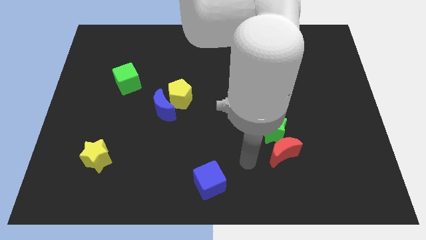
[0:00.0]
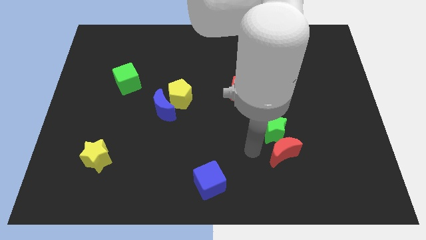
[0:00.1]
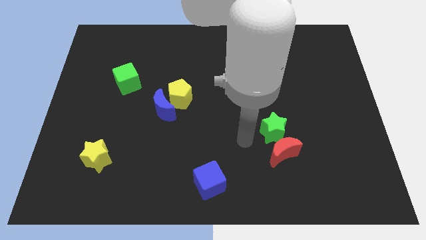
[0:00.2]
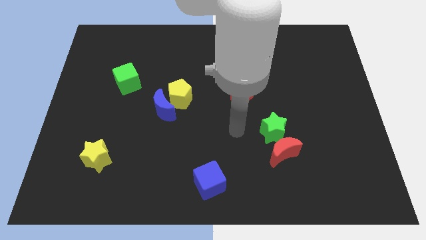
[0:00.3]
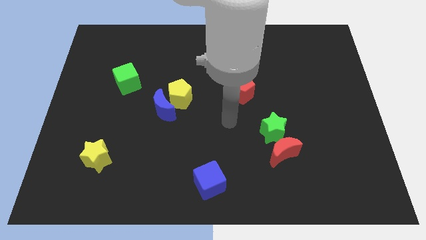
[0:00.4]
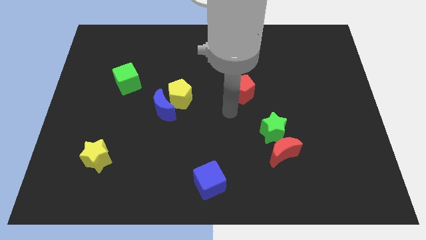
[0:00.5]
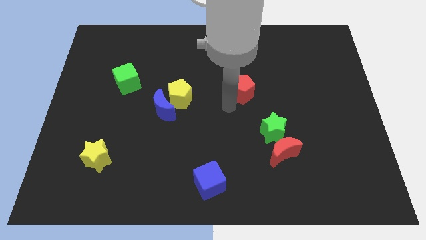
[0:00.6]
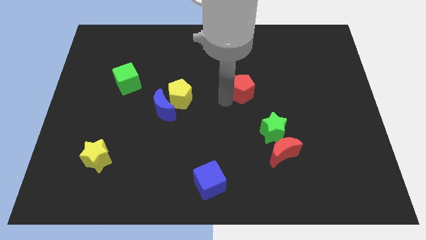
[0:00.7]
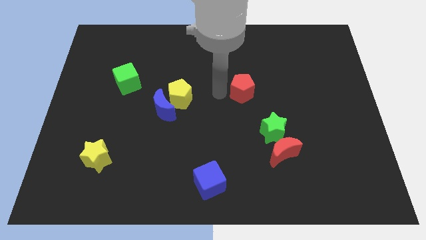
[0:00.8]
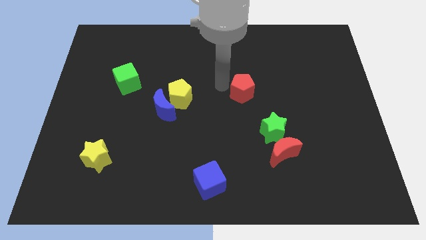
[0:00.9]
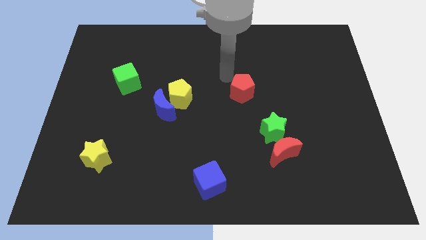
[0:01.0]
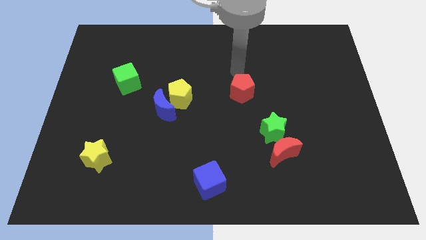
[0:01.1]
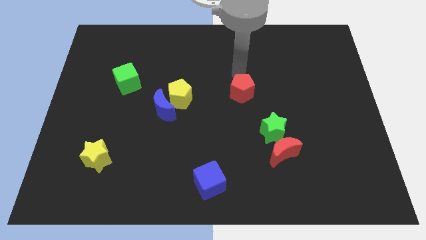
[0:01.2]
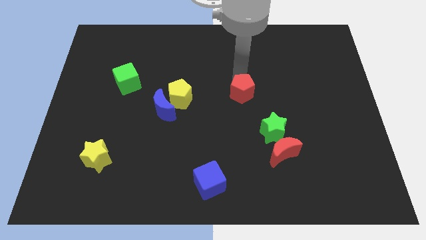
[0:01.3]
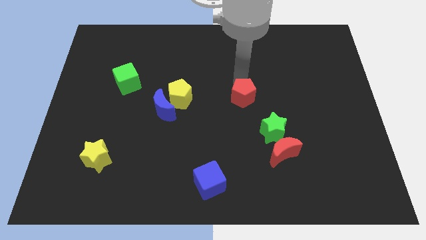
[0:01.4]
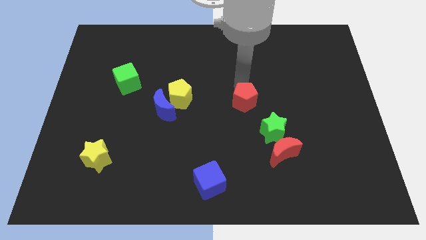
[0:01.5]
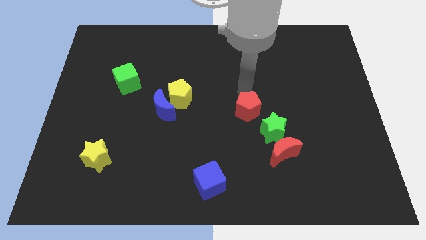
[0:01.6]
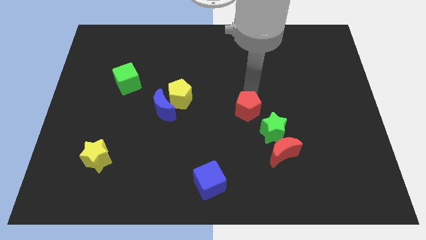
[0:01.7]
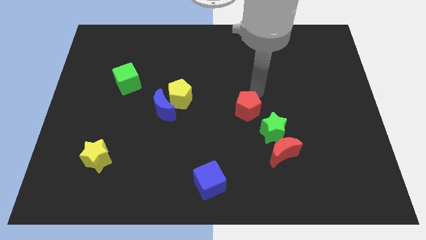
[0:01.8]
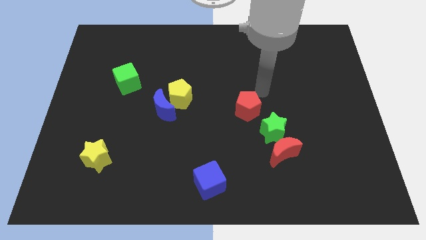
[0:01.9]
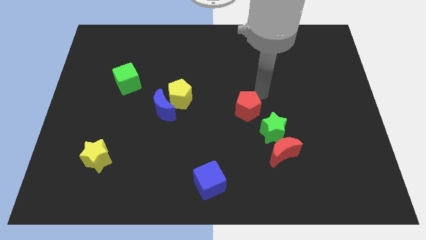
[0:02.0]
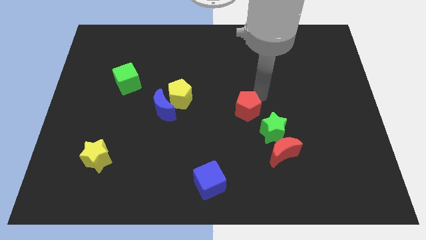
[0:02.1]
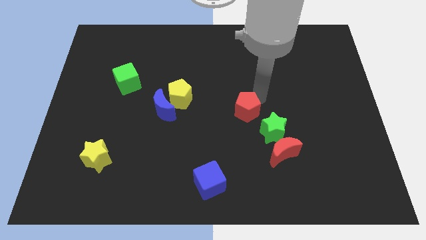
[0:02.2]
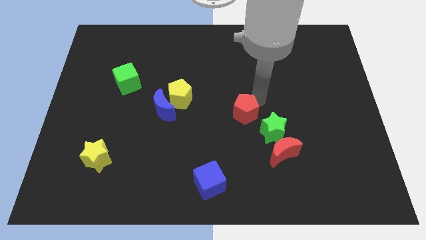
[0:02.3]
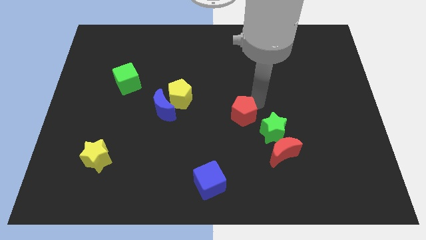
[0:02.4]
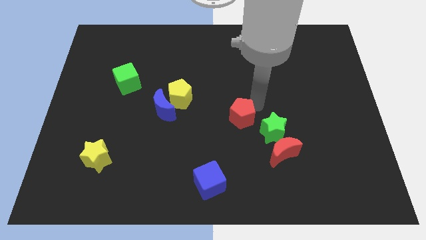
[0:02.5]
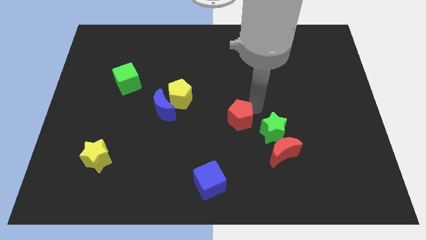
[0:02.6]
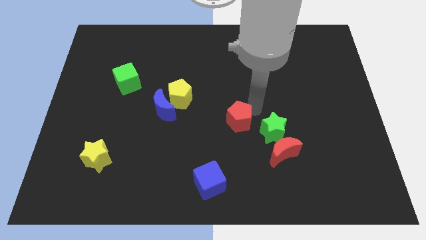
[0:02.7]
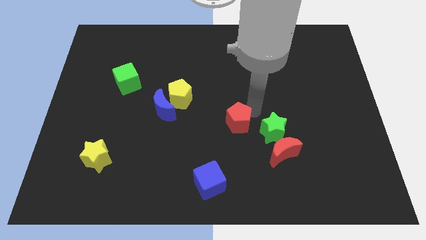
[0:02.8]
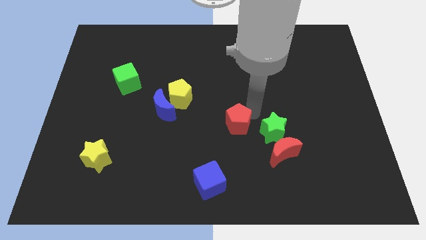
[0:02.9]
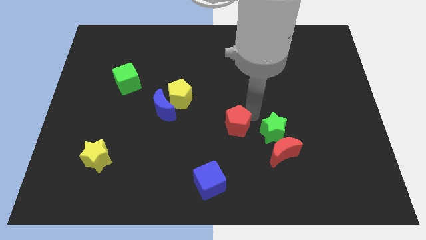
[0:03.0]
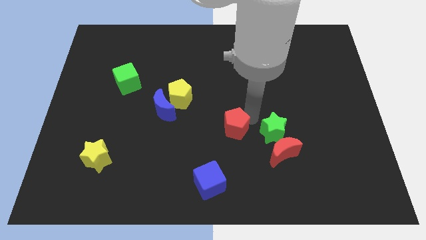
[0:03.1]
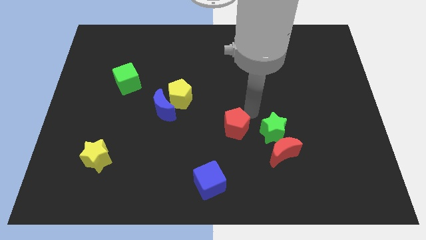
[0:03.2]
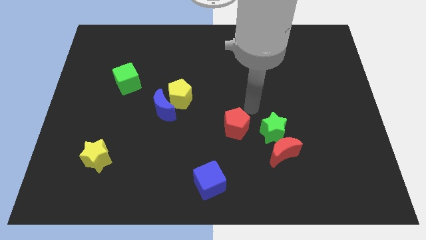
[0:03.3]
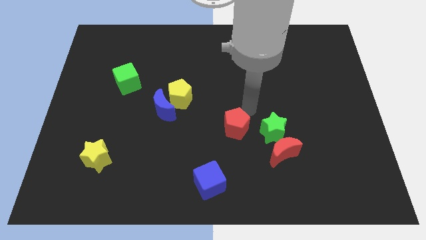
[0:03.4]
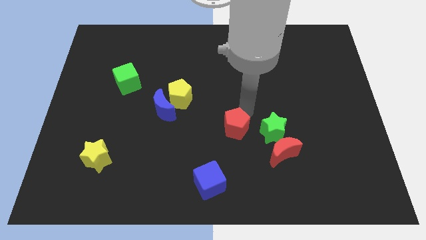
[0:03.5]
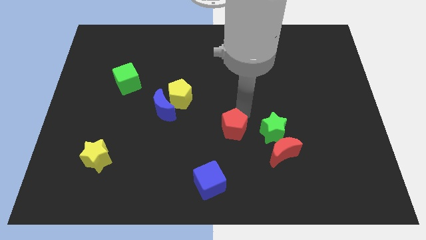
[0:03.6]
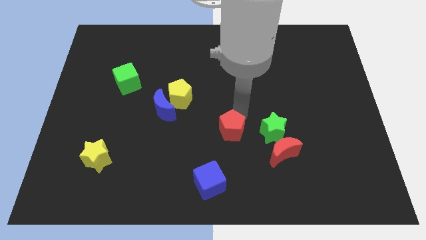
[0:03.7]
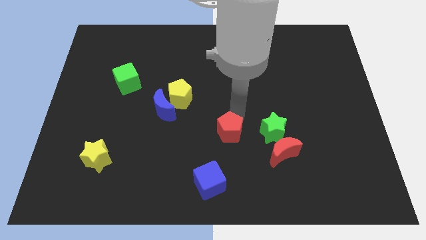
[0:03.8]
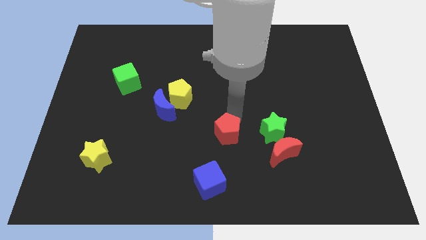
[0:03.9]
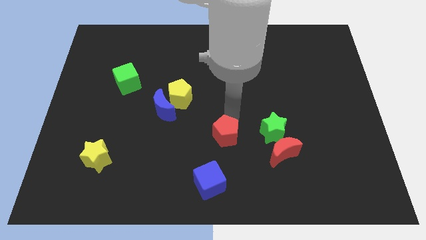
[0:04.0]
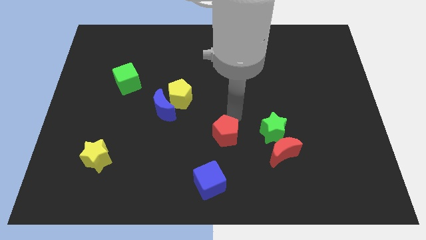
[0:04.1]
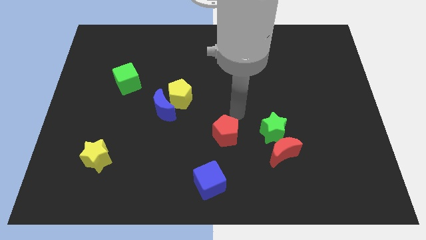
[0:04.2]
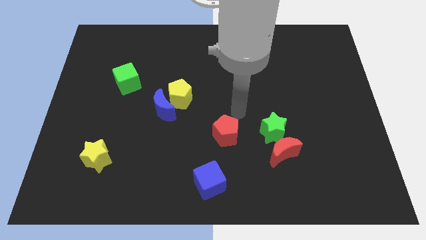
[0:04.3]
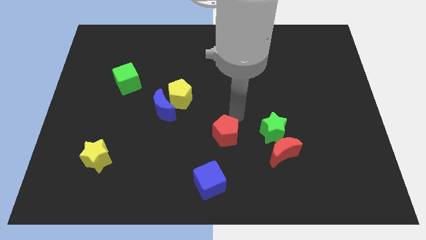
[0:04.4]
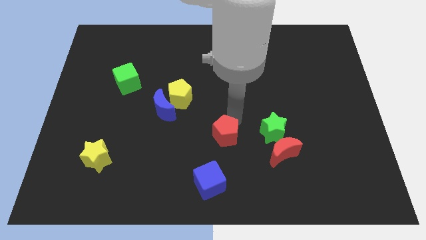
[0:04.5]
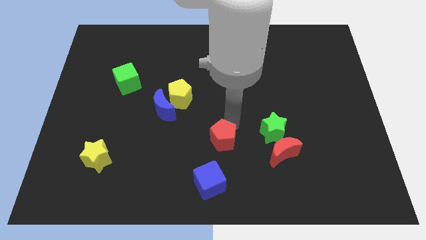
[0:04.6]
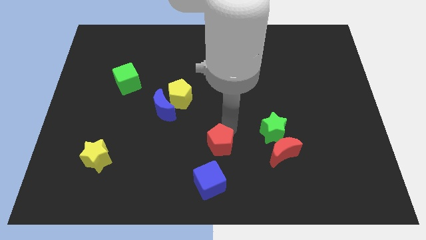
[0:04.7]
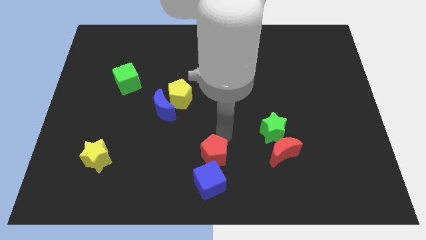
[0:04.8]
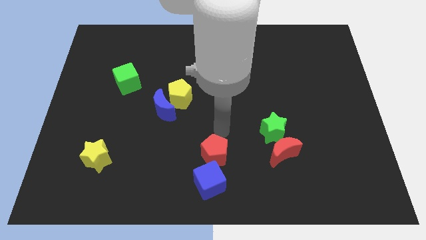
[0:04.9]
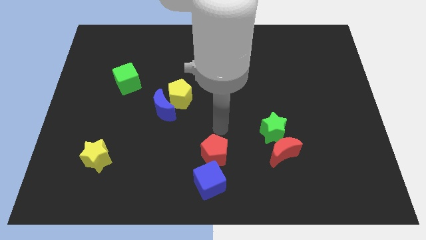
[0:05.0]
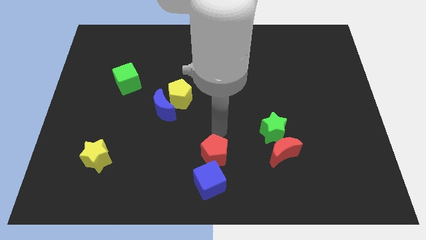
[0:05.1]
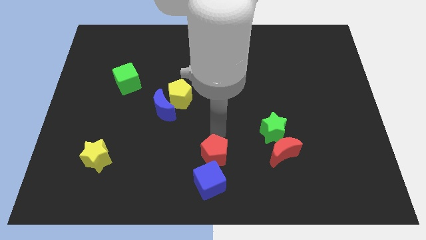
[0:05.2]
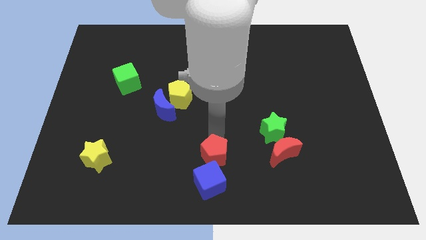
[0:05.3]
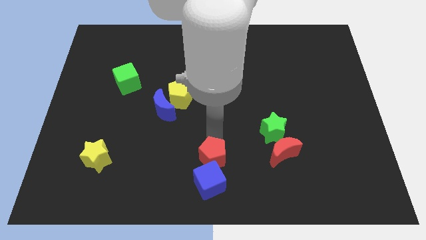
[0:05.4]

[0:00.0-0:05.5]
push the red pentagon to the blue cube

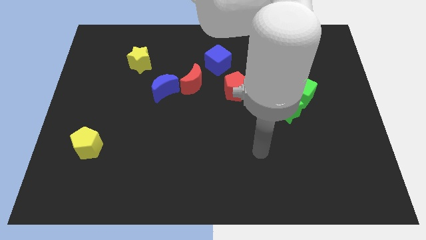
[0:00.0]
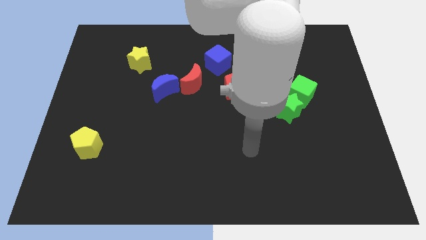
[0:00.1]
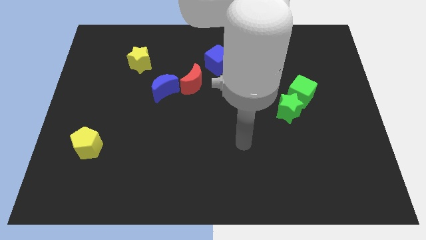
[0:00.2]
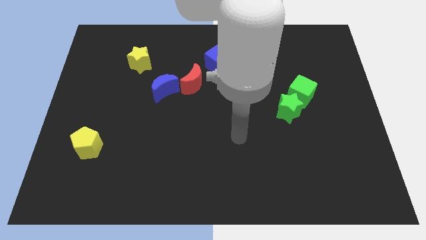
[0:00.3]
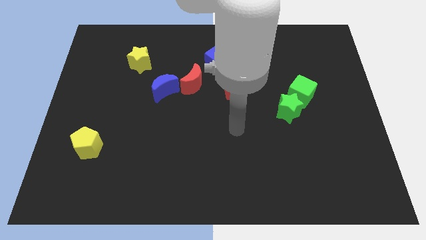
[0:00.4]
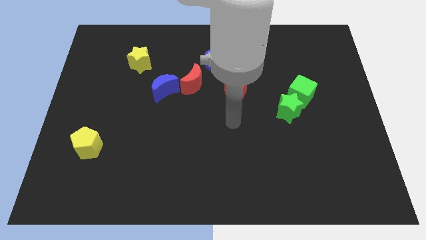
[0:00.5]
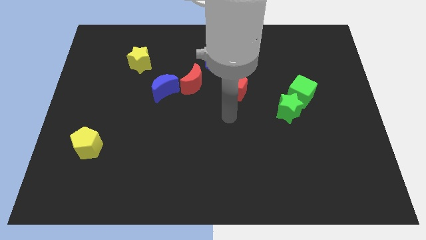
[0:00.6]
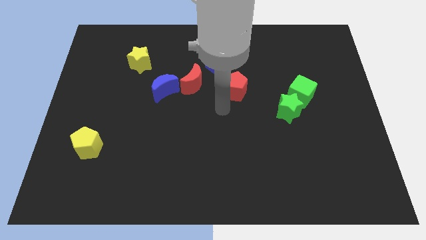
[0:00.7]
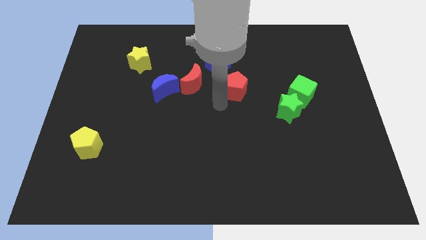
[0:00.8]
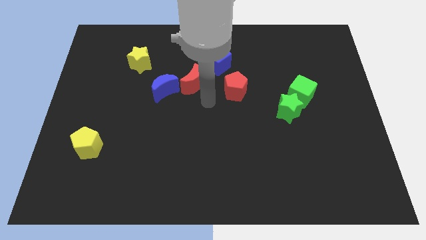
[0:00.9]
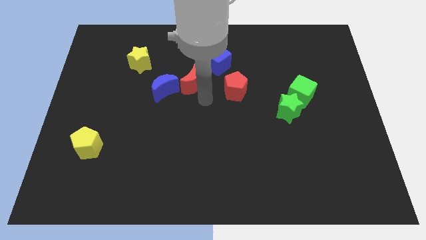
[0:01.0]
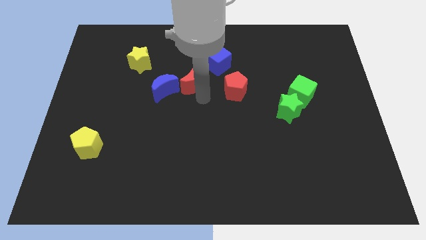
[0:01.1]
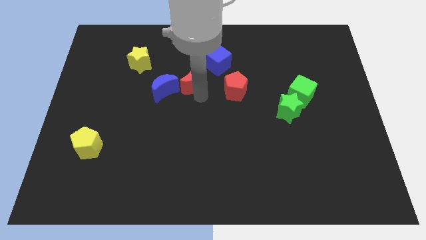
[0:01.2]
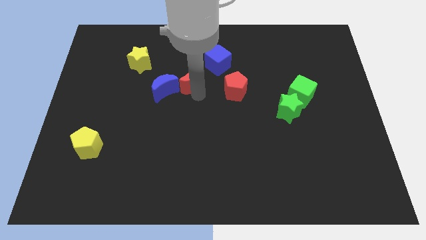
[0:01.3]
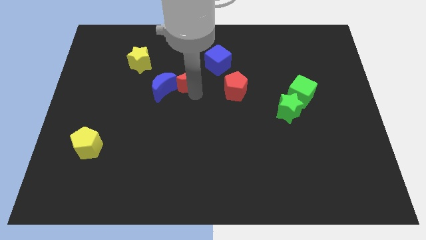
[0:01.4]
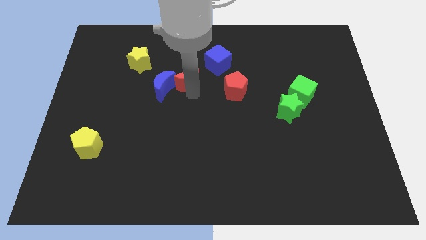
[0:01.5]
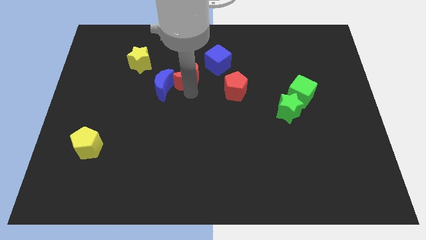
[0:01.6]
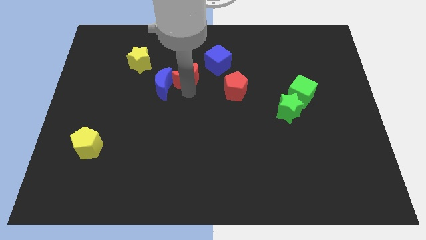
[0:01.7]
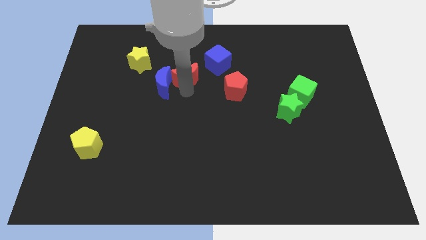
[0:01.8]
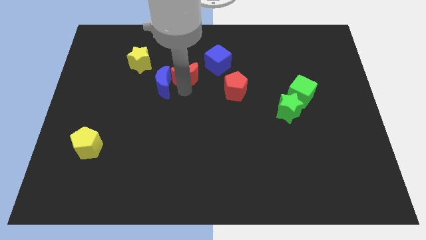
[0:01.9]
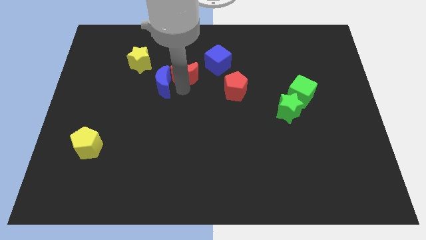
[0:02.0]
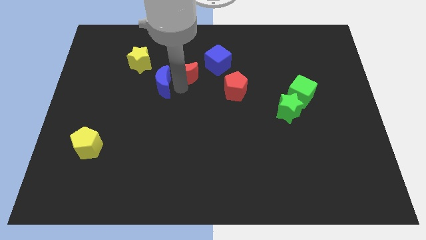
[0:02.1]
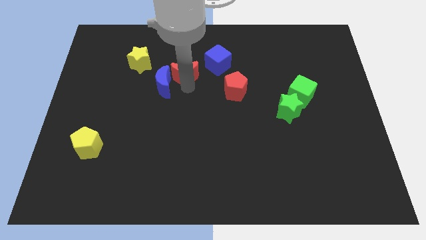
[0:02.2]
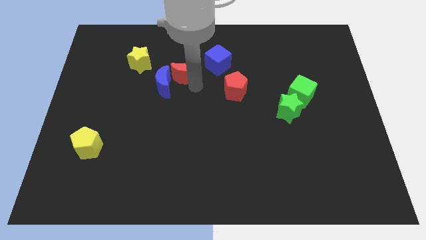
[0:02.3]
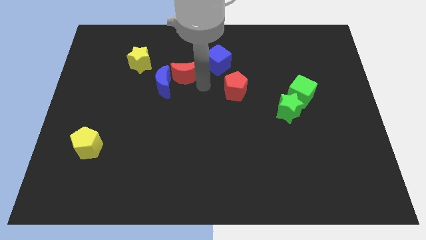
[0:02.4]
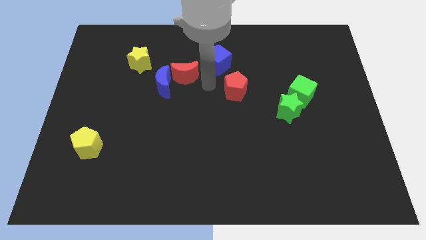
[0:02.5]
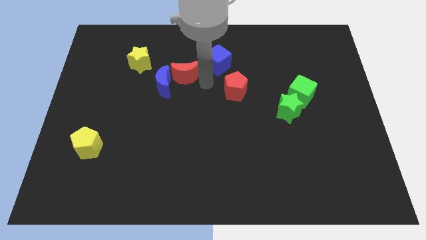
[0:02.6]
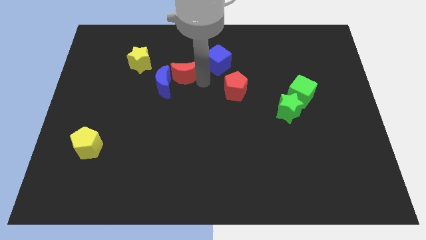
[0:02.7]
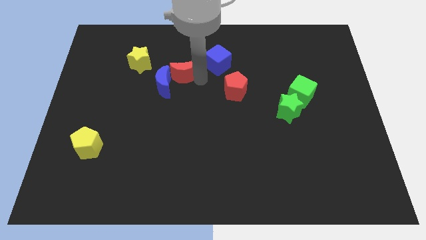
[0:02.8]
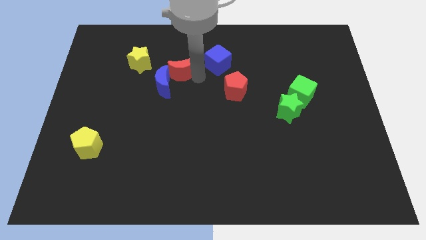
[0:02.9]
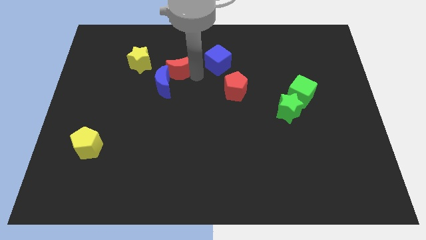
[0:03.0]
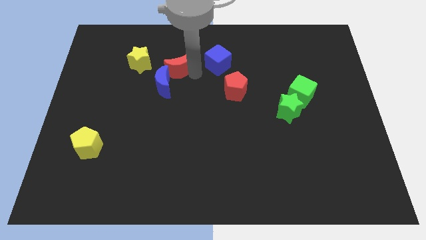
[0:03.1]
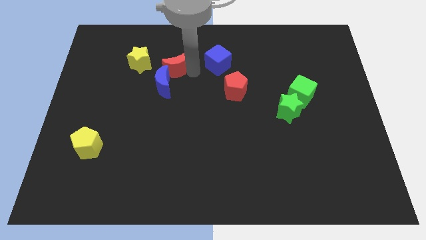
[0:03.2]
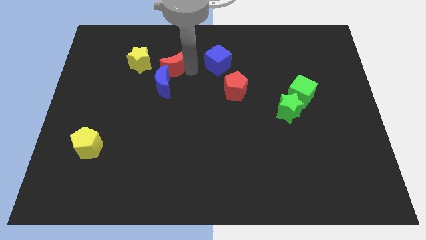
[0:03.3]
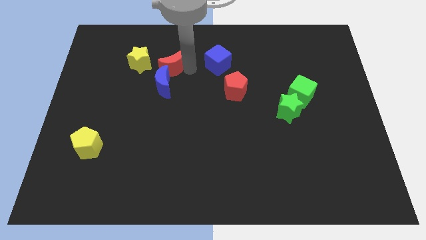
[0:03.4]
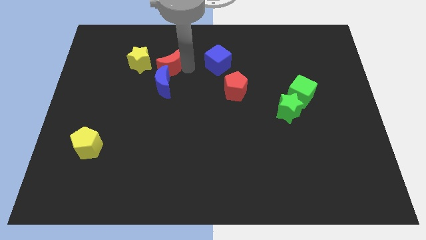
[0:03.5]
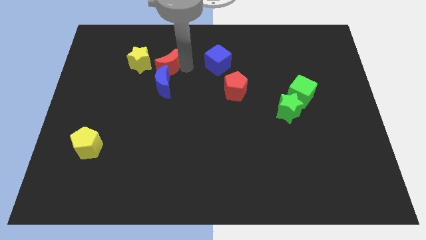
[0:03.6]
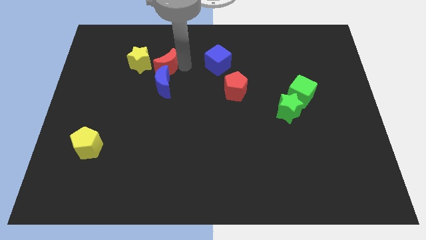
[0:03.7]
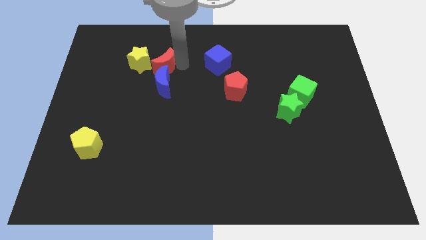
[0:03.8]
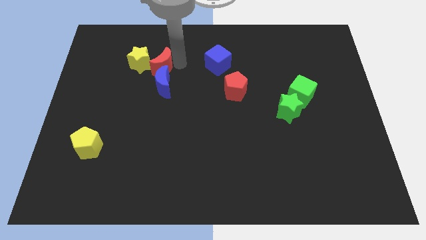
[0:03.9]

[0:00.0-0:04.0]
push the red moon next to the yellow star
